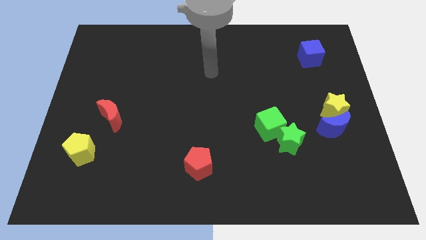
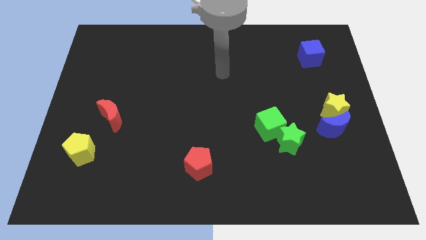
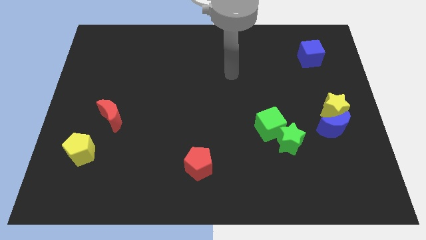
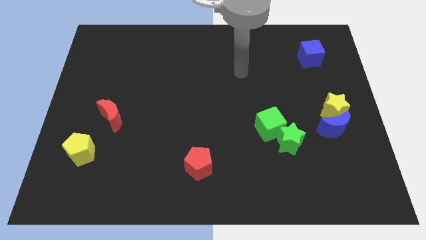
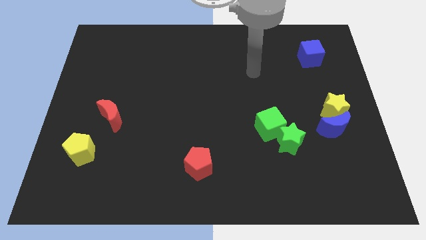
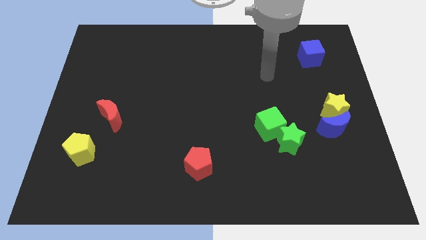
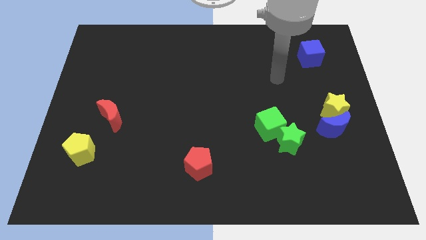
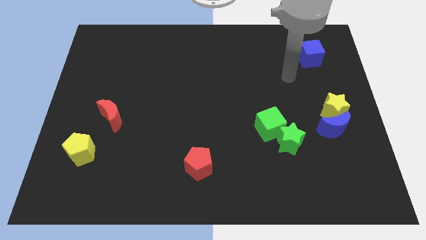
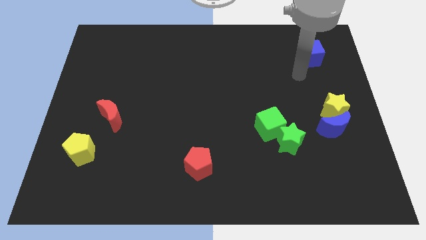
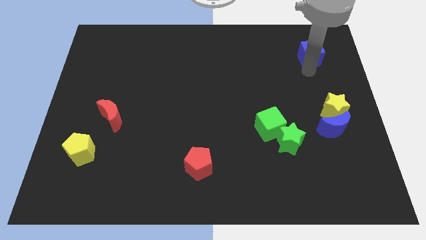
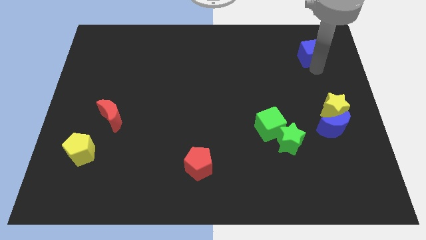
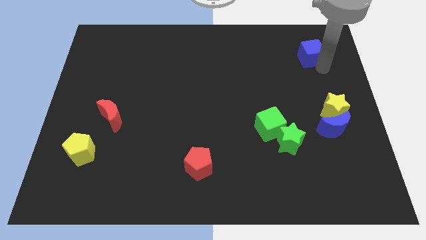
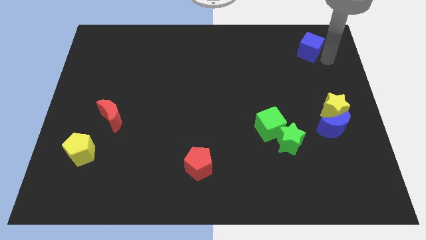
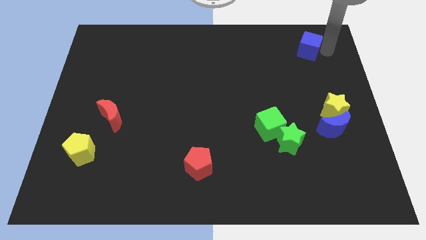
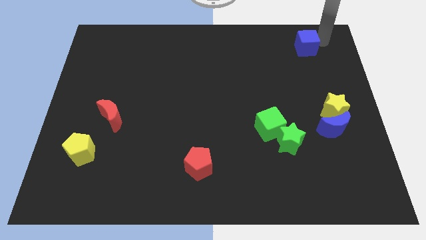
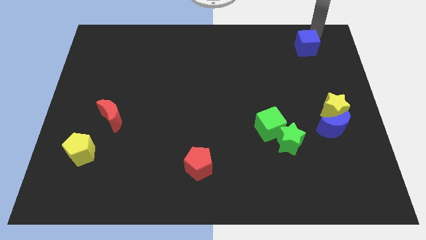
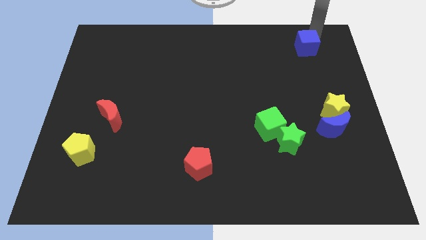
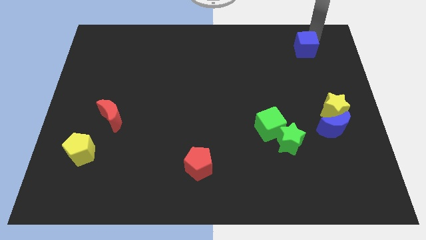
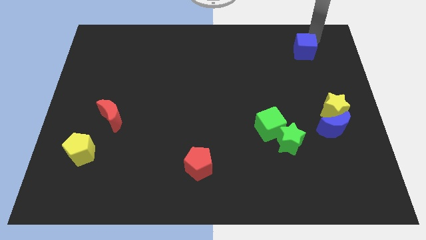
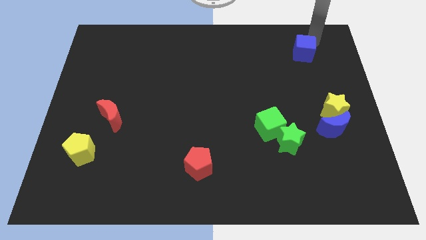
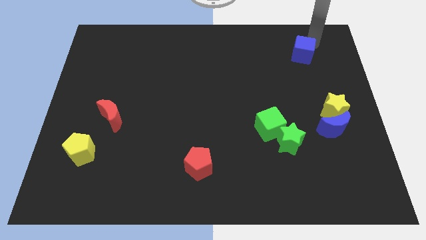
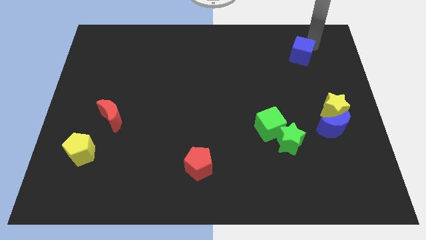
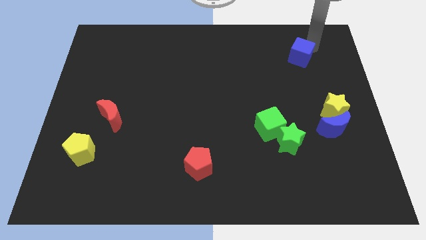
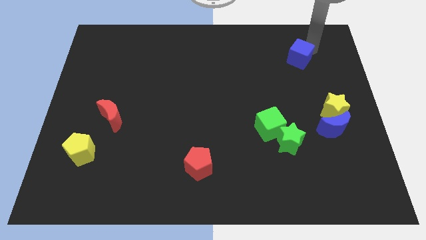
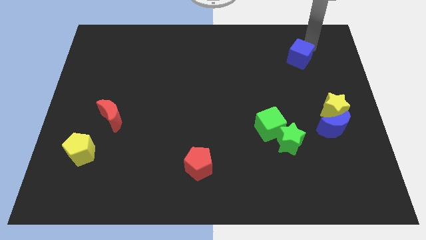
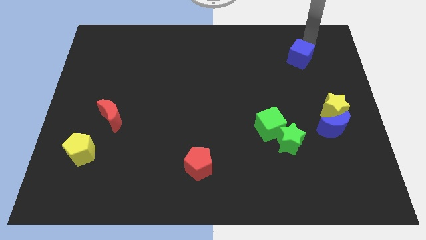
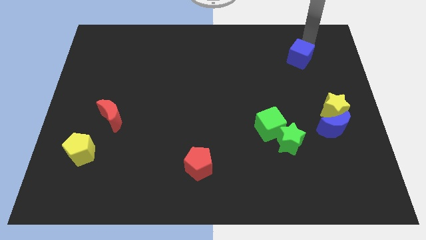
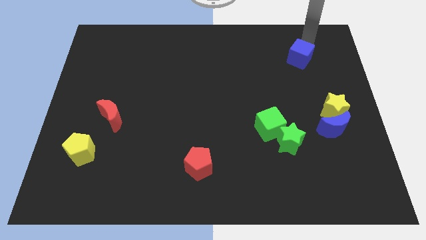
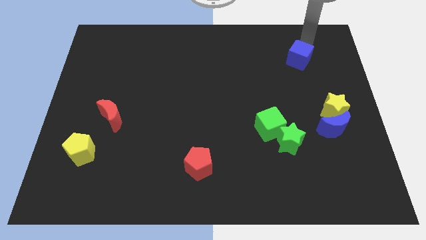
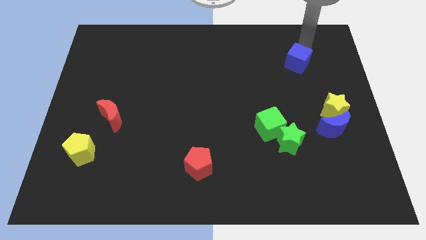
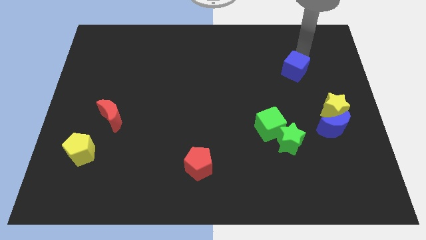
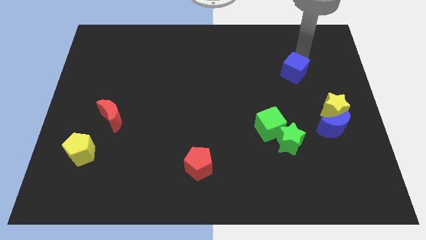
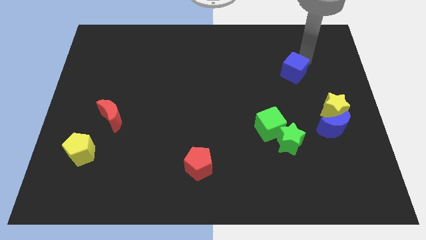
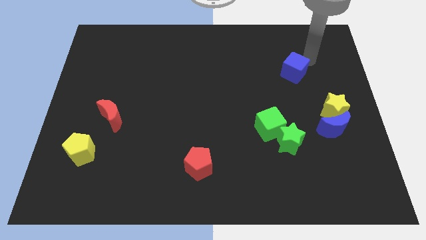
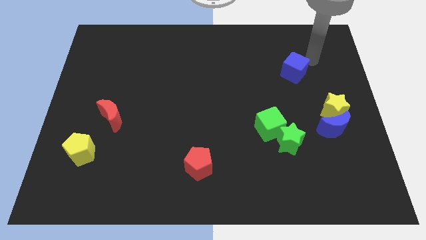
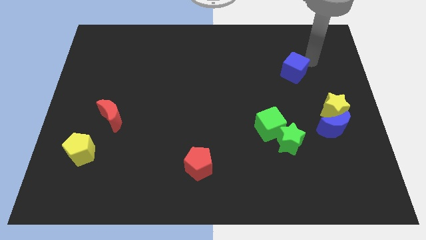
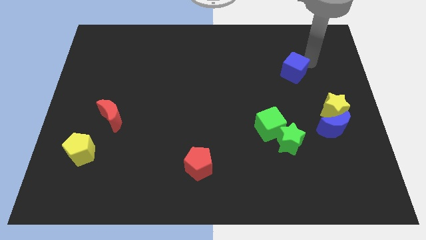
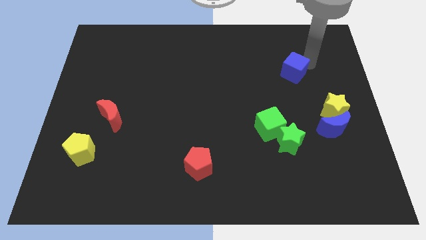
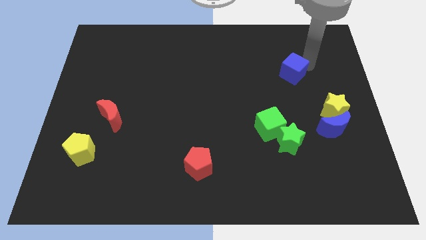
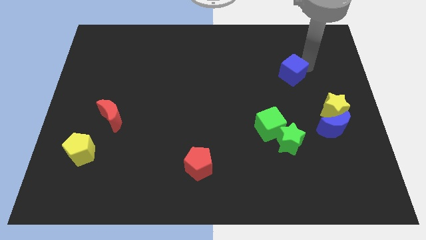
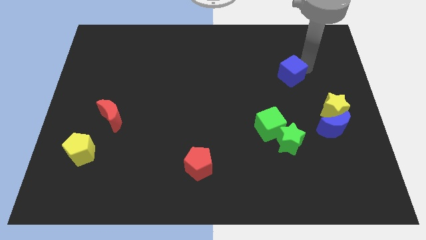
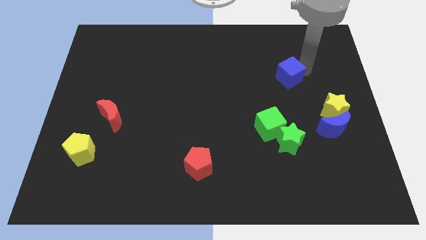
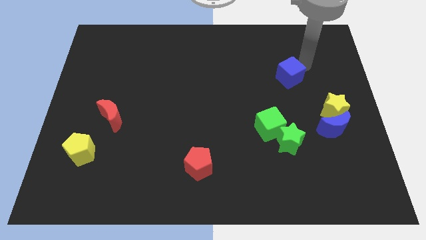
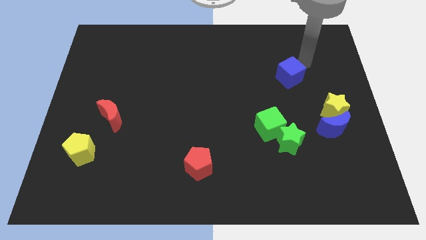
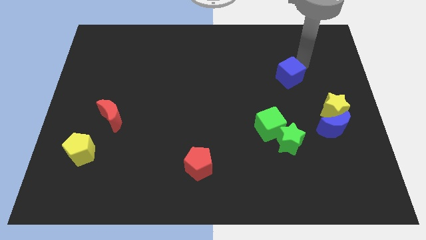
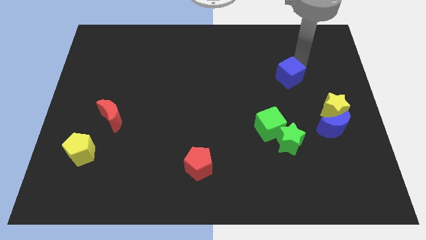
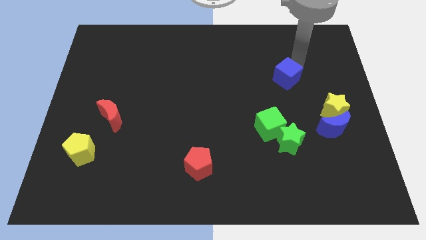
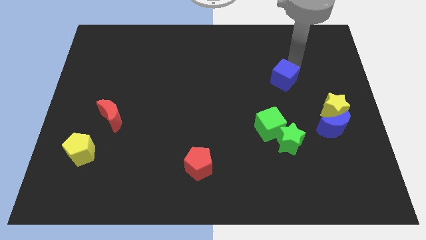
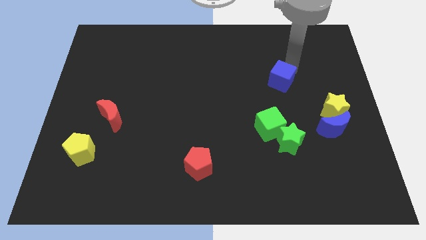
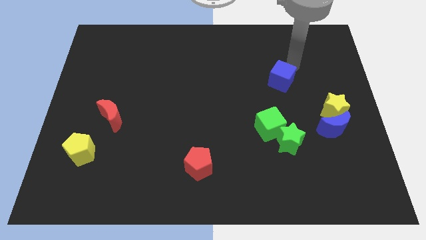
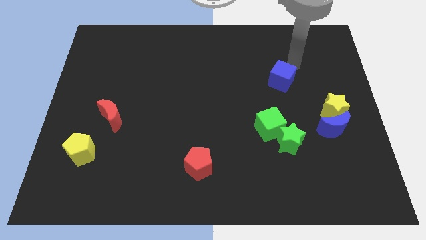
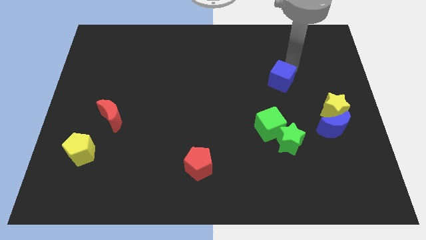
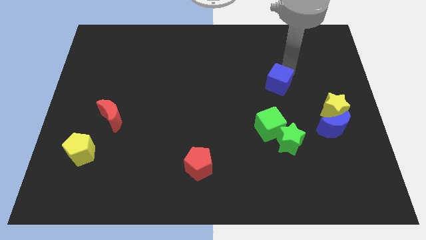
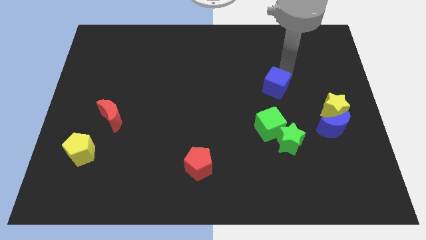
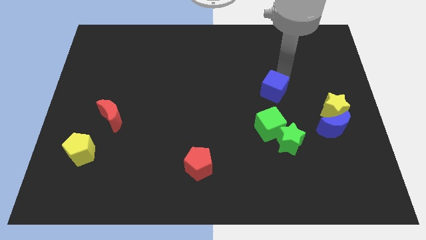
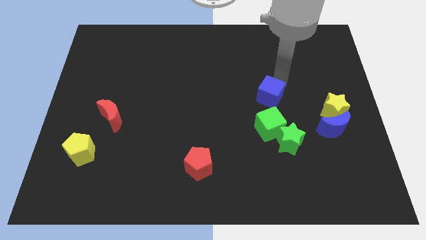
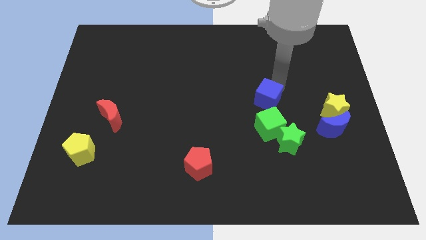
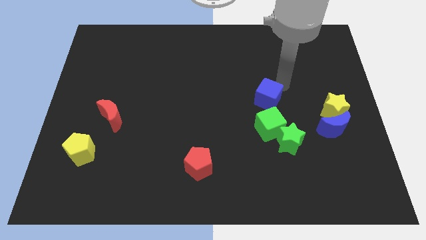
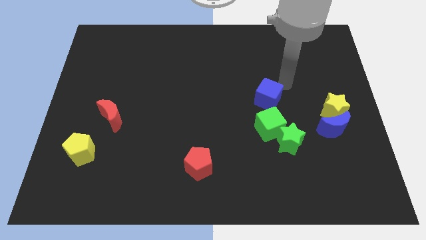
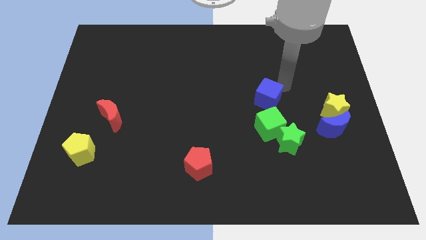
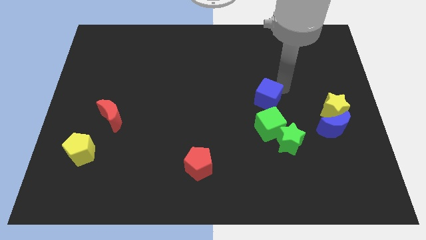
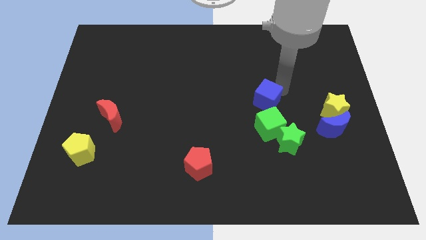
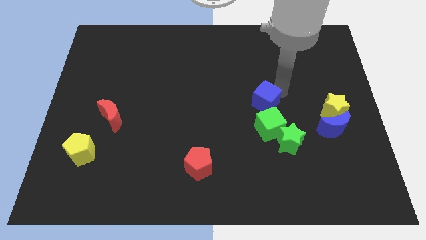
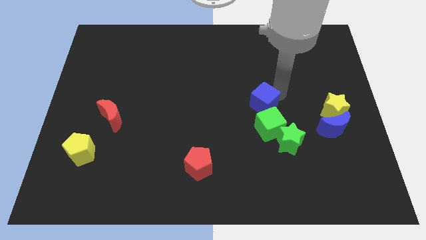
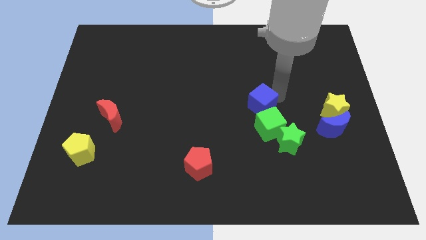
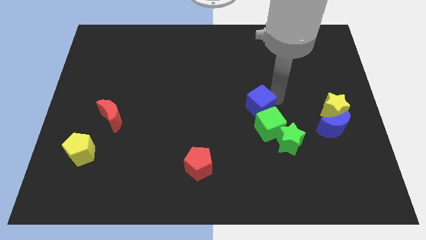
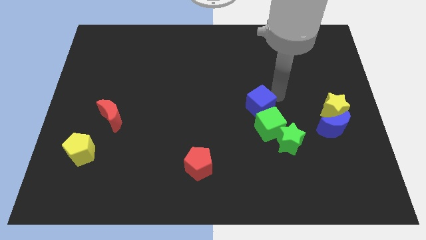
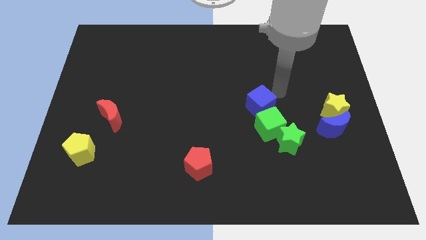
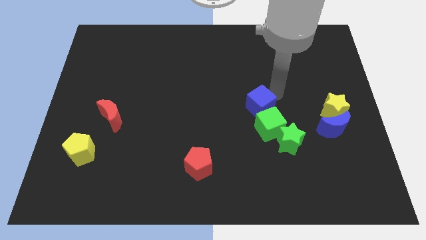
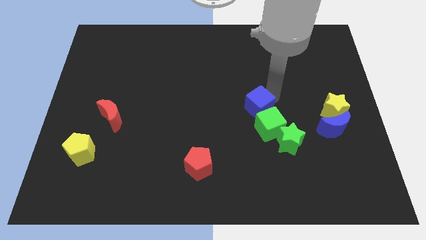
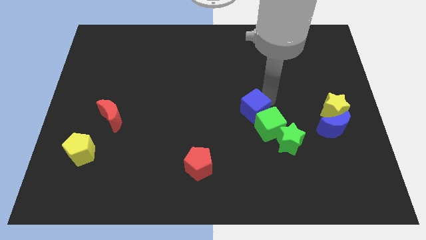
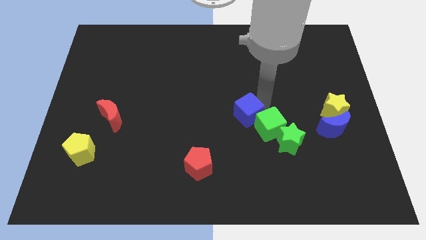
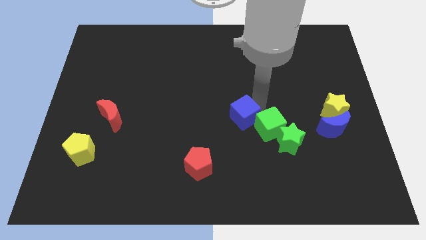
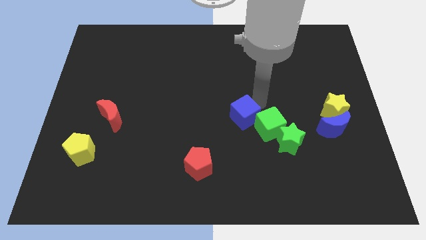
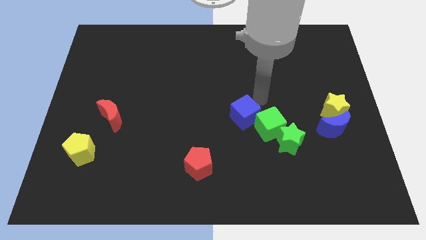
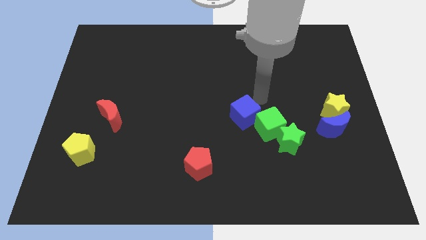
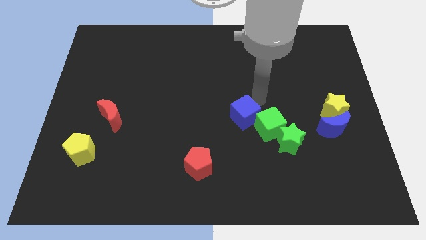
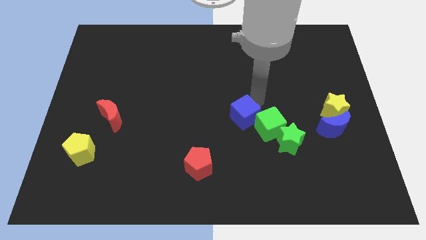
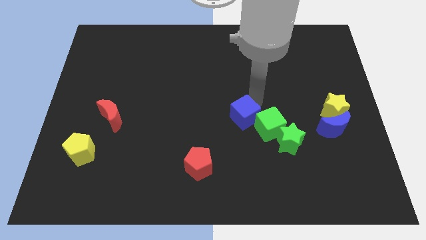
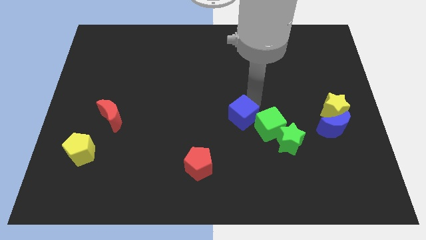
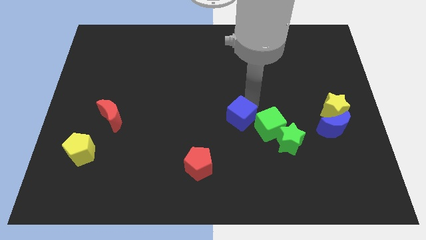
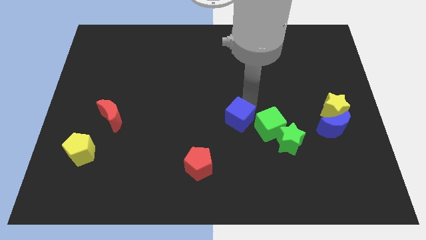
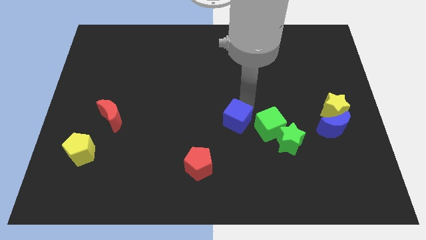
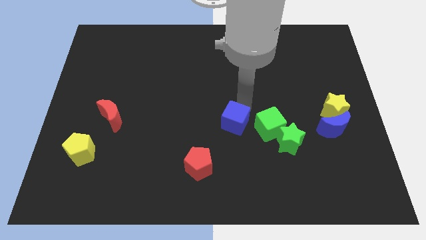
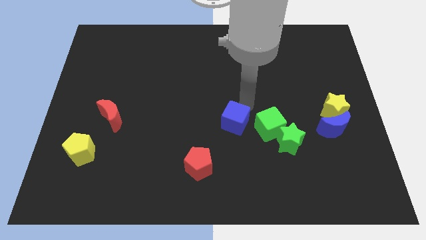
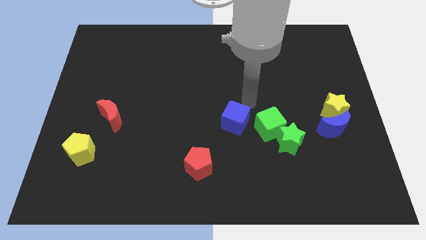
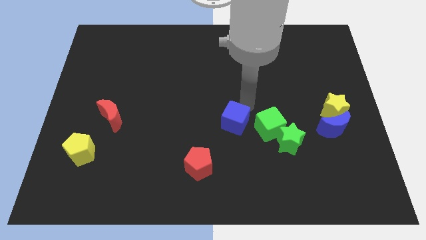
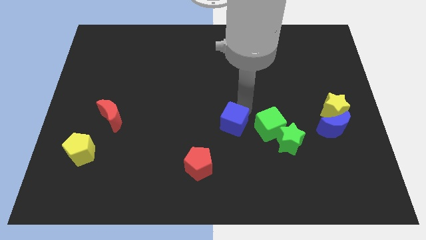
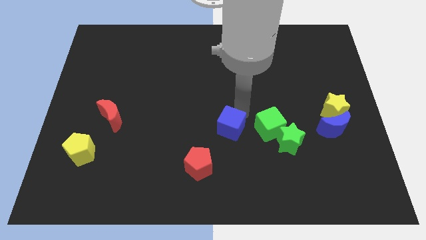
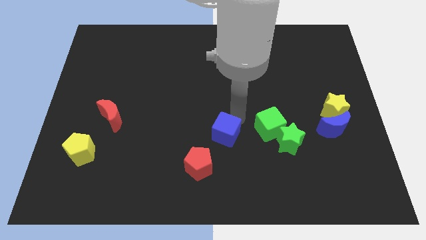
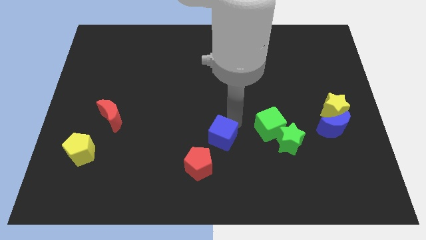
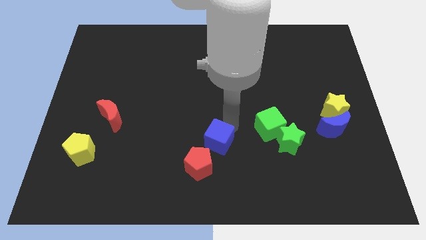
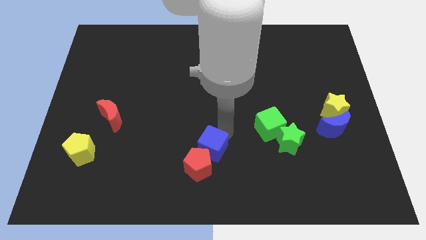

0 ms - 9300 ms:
move the blue cube next to the red pentagon
